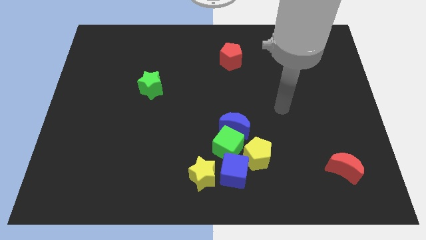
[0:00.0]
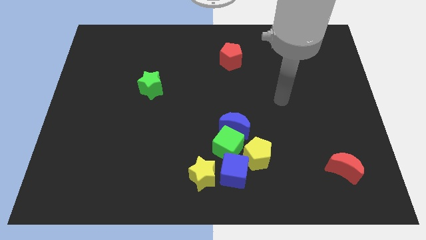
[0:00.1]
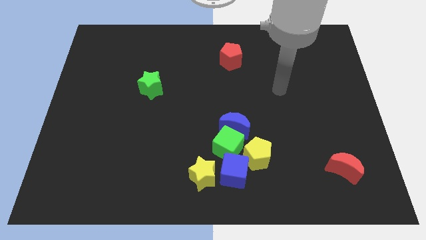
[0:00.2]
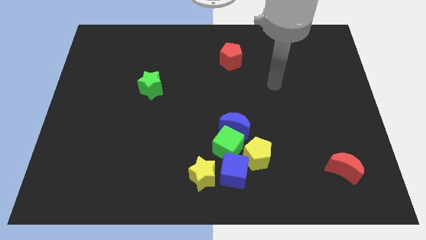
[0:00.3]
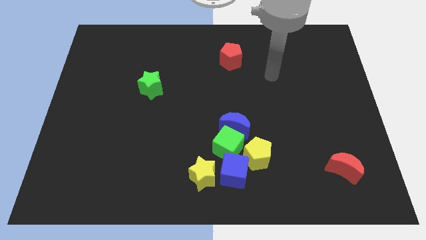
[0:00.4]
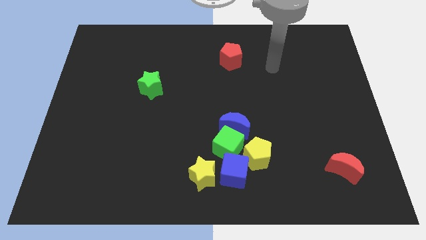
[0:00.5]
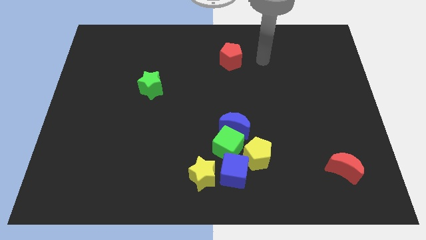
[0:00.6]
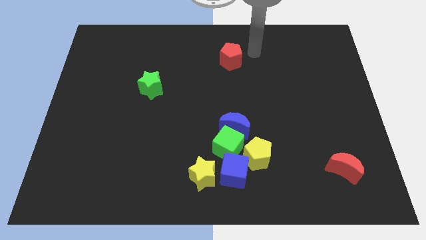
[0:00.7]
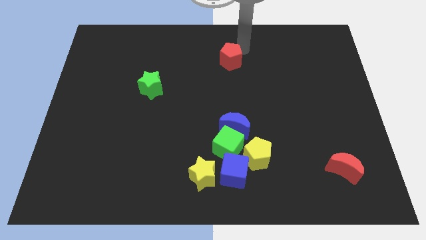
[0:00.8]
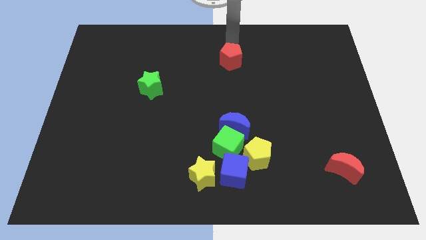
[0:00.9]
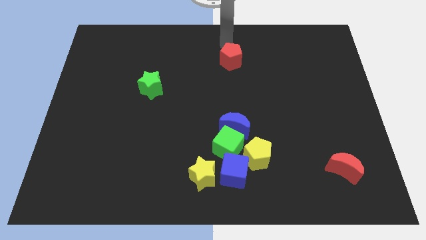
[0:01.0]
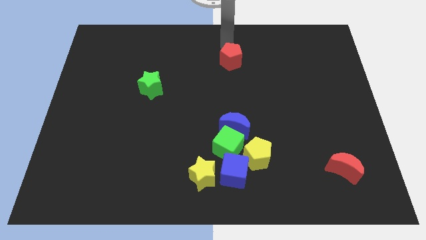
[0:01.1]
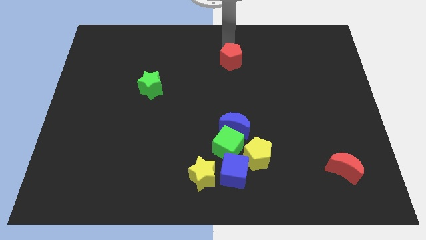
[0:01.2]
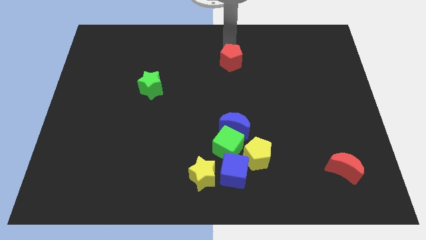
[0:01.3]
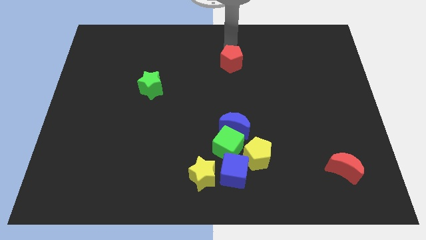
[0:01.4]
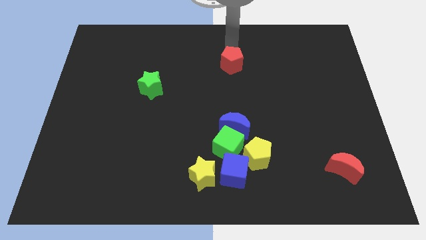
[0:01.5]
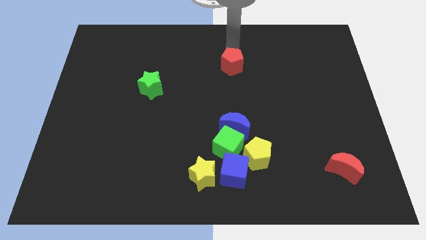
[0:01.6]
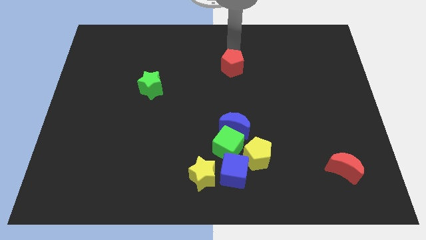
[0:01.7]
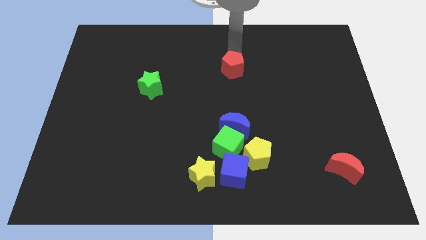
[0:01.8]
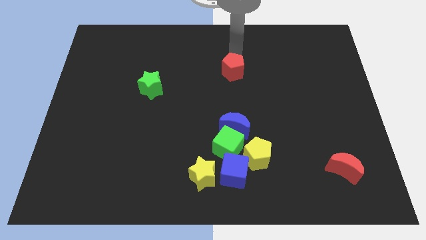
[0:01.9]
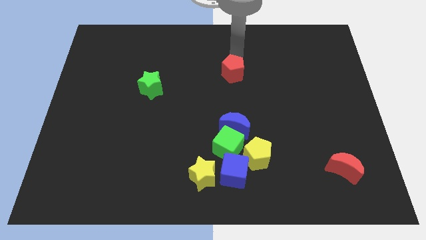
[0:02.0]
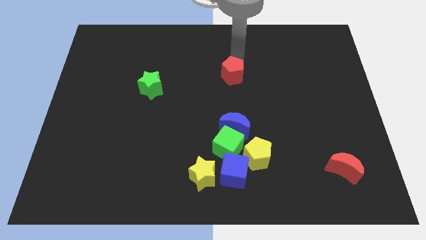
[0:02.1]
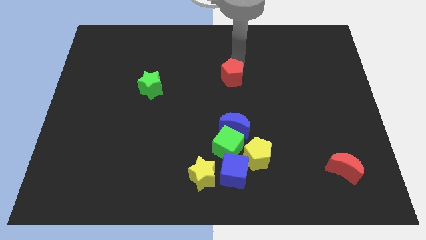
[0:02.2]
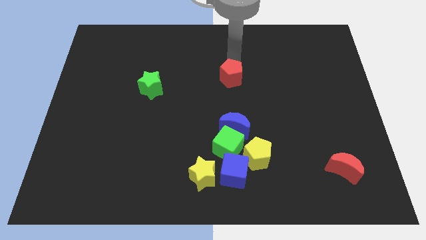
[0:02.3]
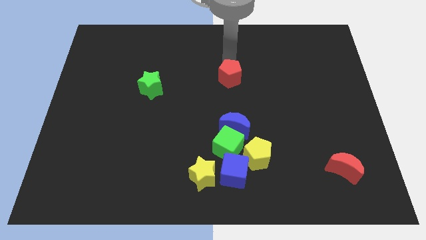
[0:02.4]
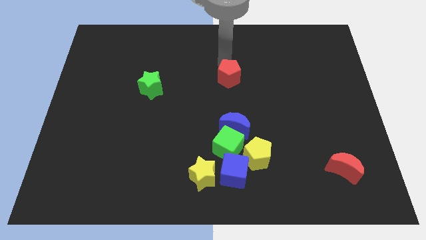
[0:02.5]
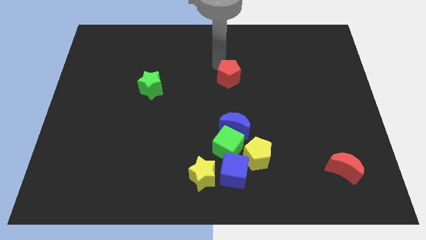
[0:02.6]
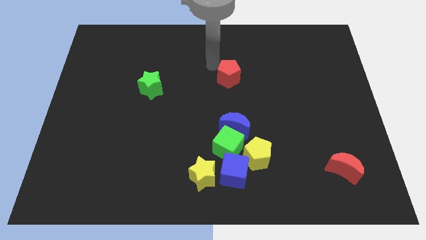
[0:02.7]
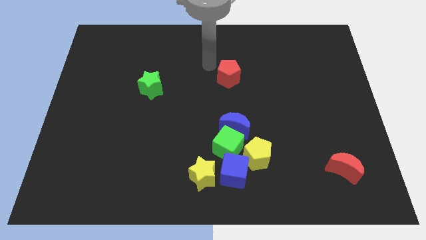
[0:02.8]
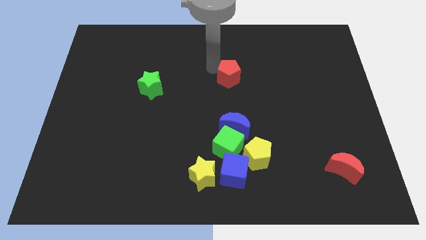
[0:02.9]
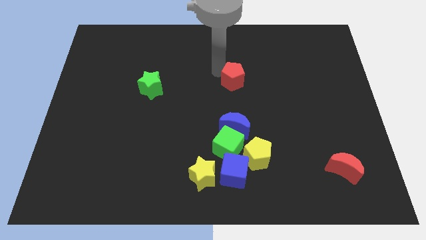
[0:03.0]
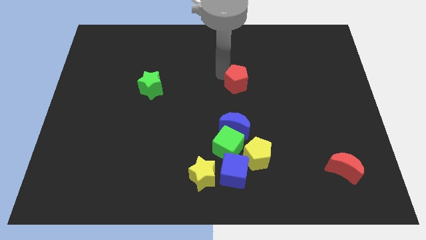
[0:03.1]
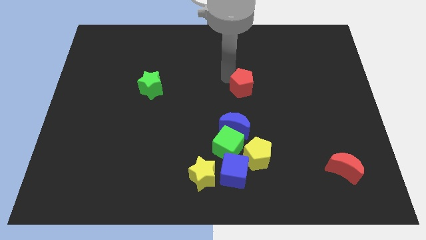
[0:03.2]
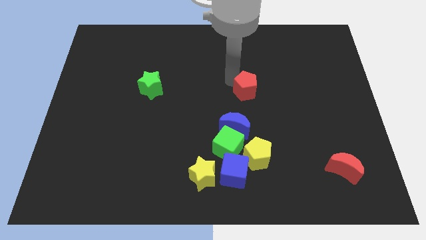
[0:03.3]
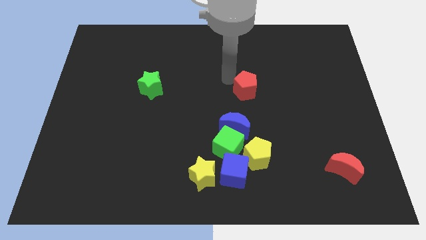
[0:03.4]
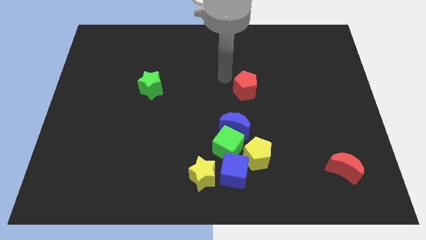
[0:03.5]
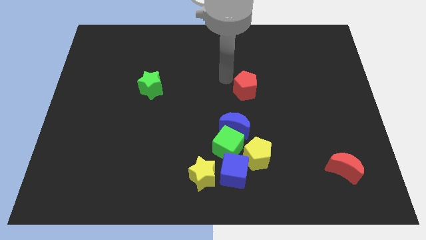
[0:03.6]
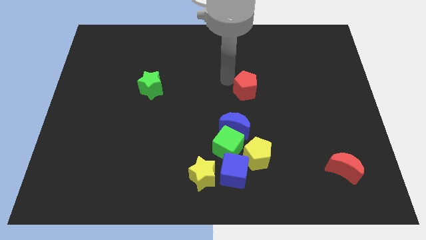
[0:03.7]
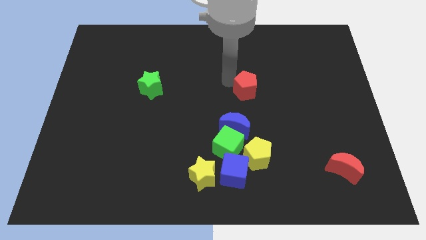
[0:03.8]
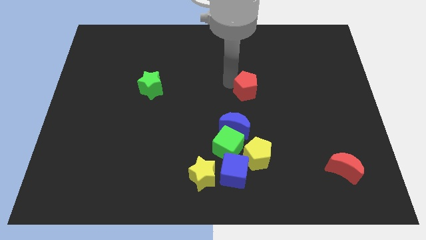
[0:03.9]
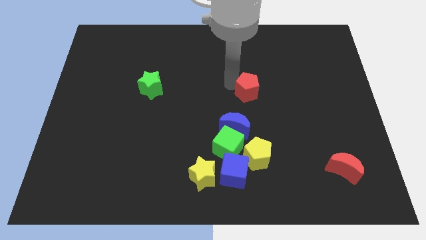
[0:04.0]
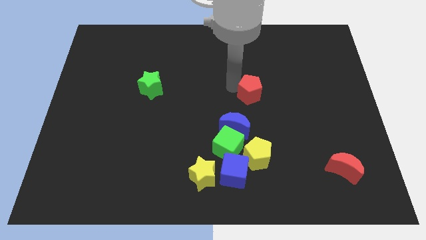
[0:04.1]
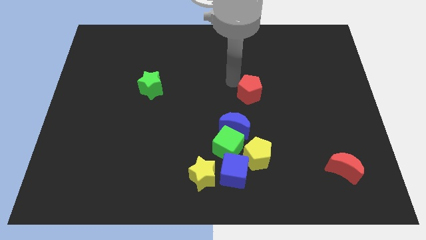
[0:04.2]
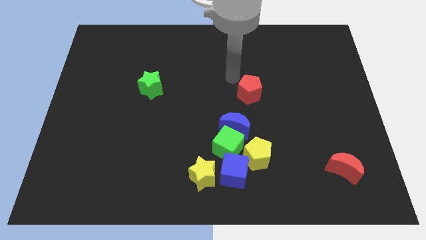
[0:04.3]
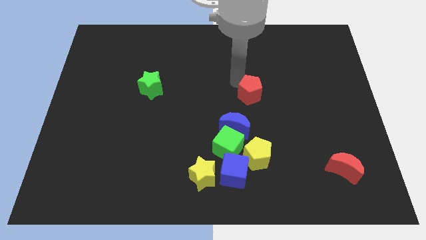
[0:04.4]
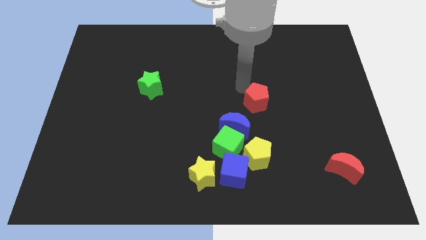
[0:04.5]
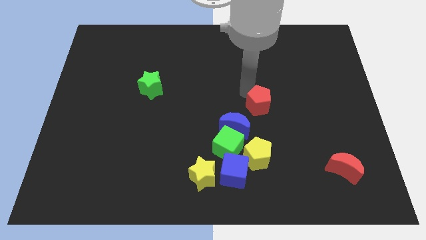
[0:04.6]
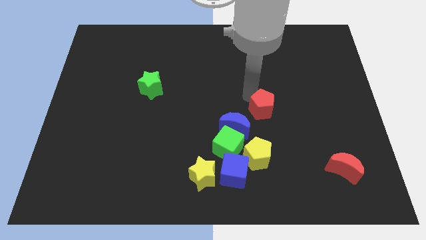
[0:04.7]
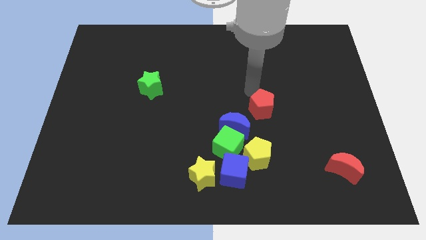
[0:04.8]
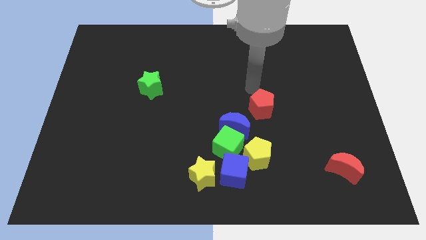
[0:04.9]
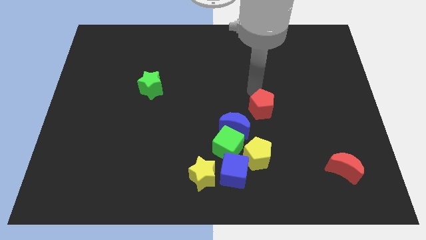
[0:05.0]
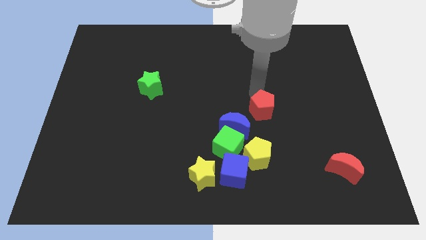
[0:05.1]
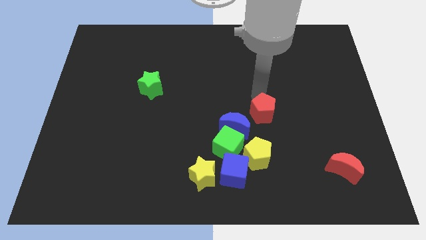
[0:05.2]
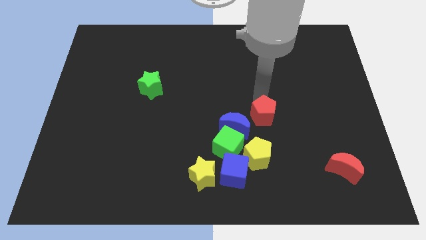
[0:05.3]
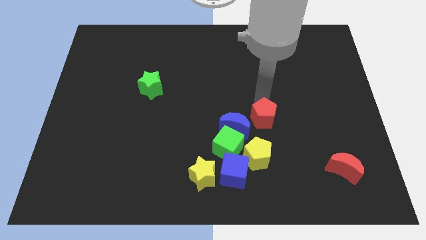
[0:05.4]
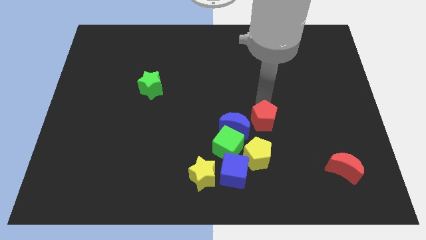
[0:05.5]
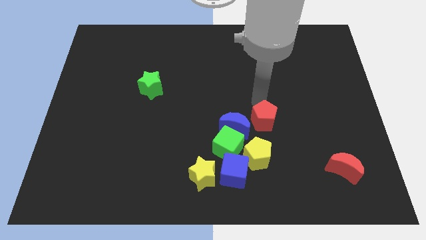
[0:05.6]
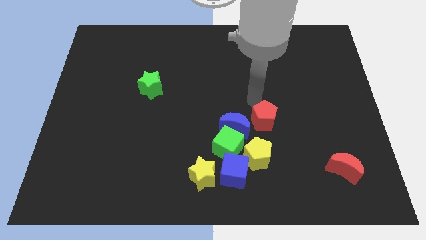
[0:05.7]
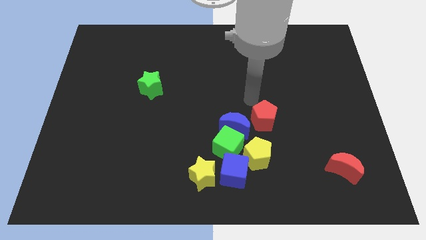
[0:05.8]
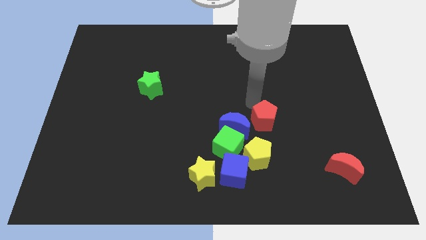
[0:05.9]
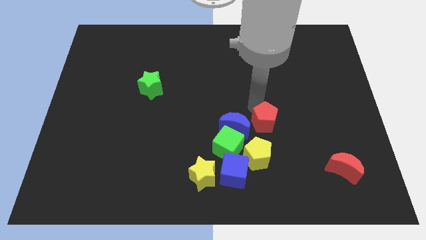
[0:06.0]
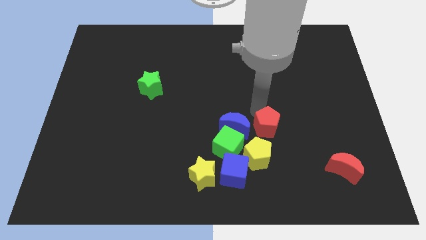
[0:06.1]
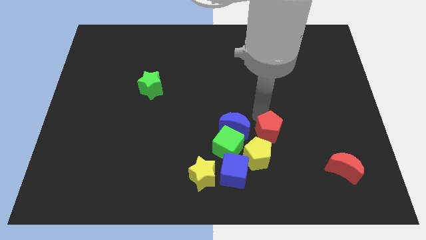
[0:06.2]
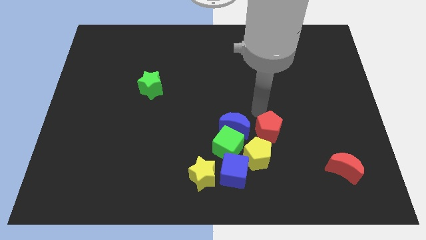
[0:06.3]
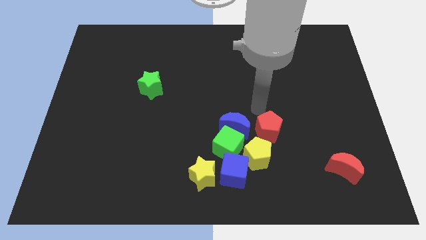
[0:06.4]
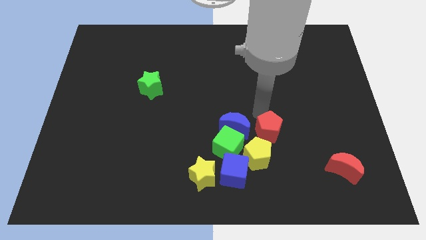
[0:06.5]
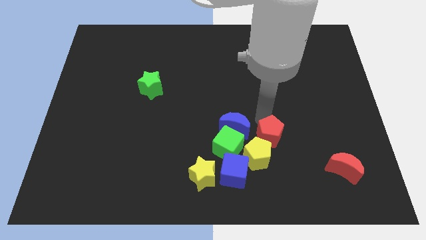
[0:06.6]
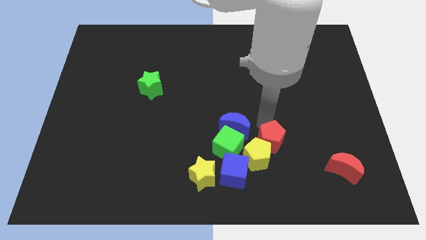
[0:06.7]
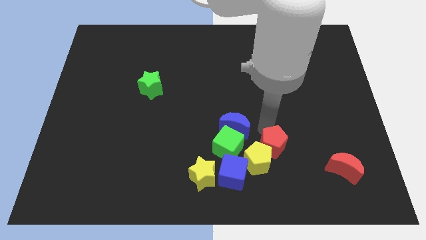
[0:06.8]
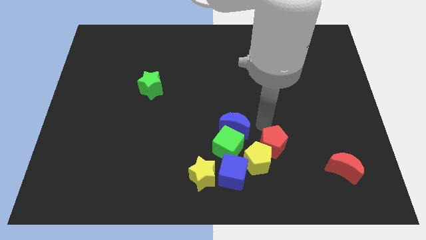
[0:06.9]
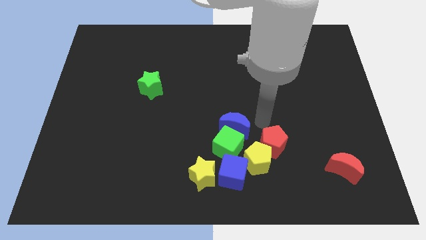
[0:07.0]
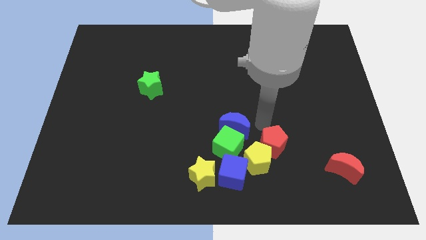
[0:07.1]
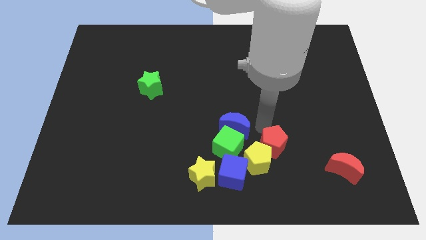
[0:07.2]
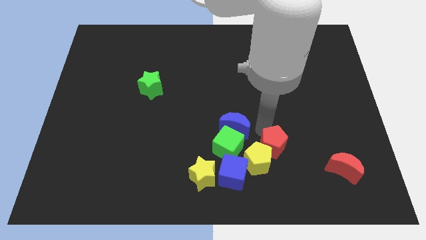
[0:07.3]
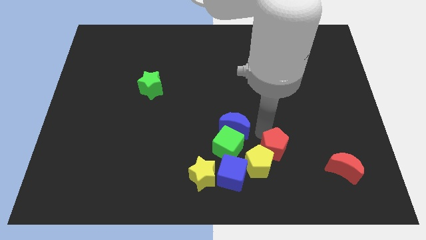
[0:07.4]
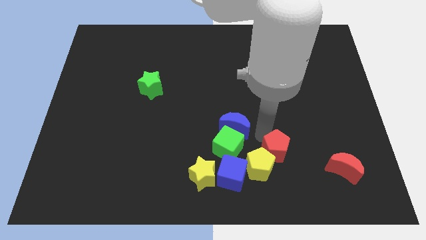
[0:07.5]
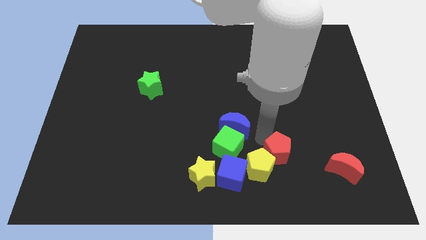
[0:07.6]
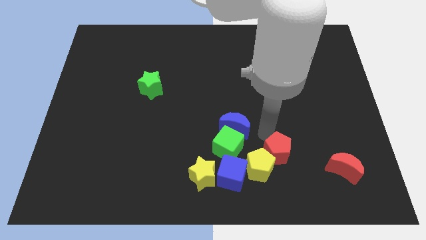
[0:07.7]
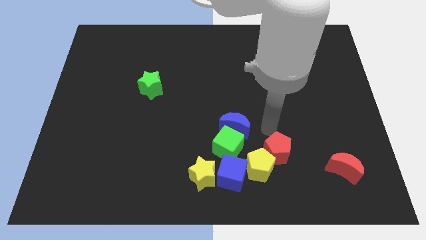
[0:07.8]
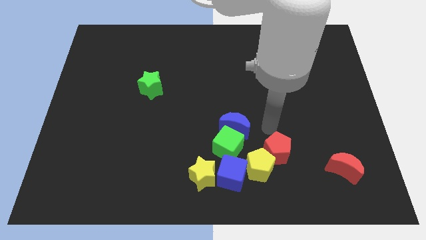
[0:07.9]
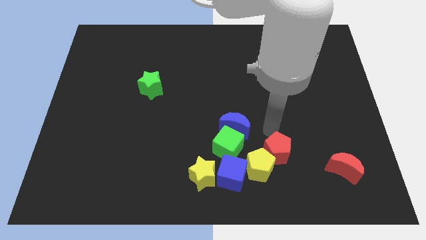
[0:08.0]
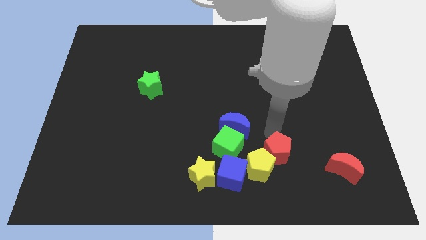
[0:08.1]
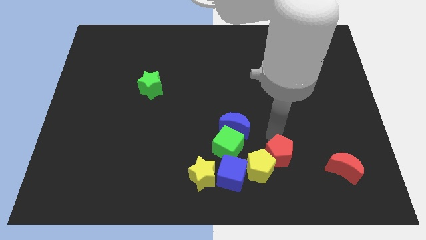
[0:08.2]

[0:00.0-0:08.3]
slide the red pentagon to the right side of the blue cube
